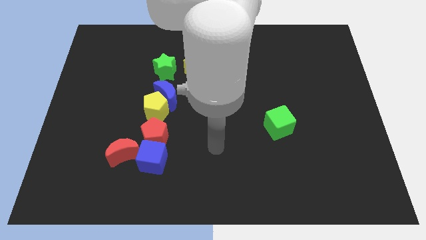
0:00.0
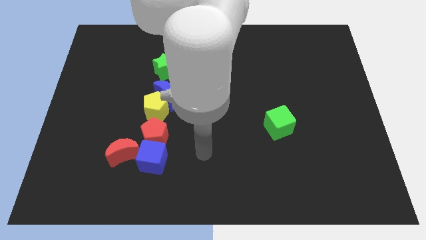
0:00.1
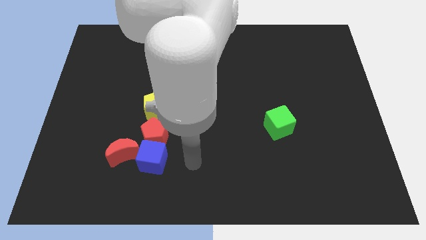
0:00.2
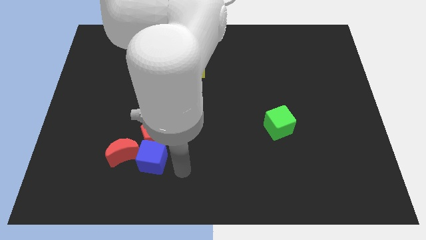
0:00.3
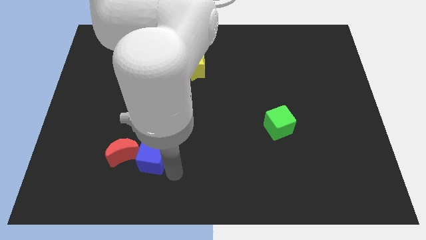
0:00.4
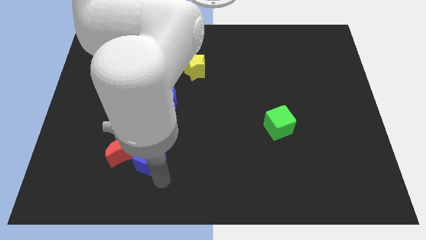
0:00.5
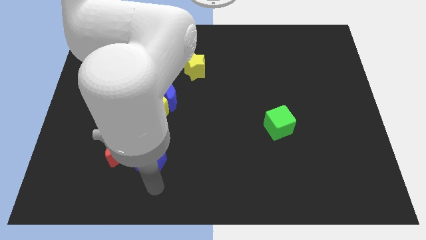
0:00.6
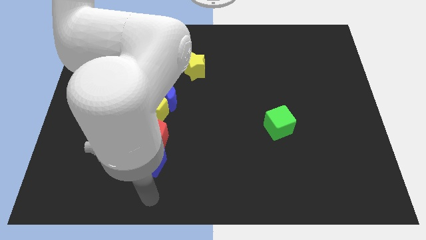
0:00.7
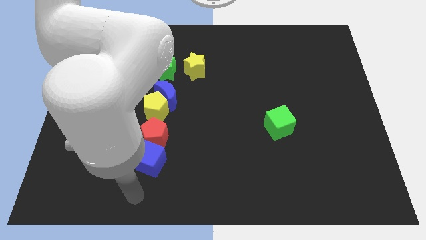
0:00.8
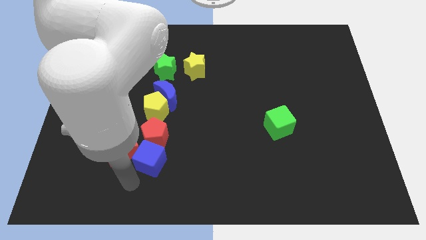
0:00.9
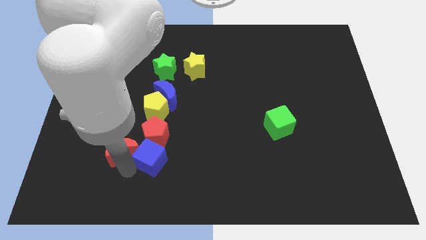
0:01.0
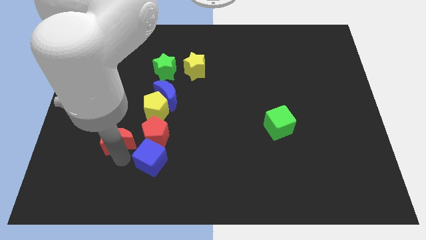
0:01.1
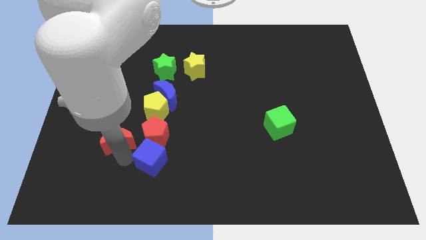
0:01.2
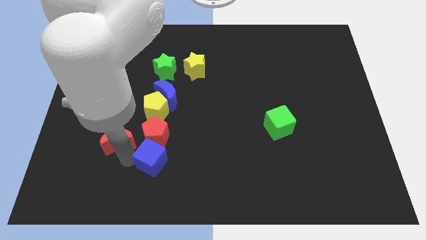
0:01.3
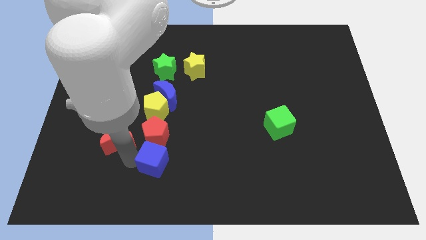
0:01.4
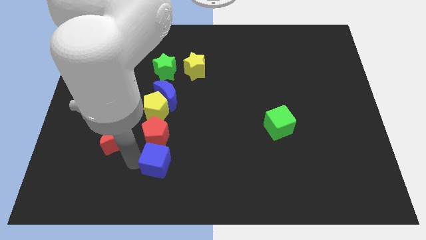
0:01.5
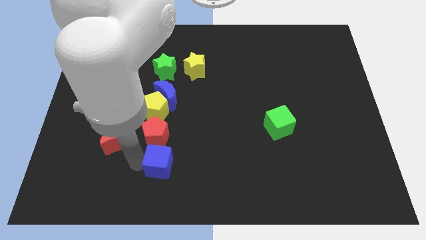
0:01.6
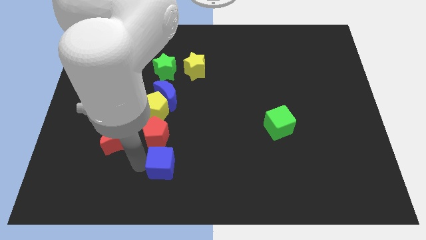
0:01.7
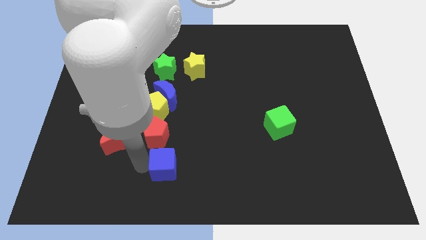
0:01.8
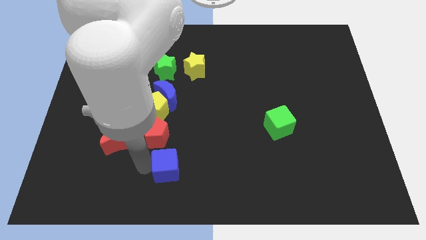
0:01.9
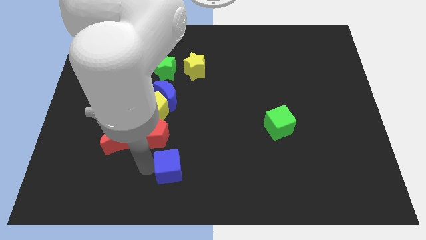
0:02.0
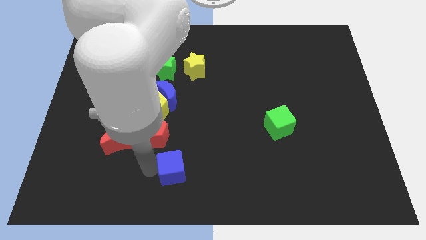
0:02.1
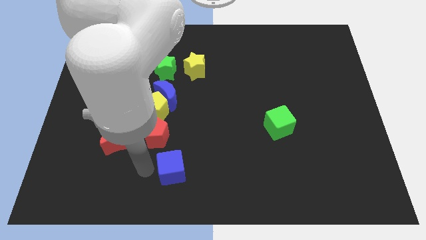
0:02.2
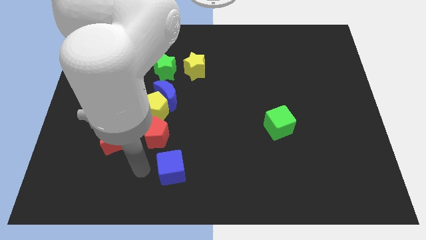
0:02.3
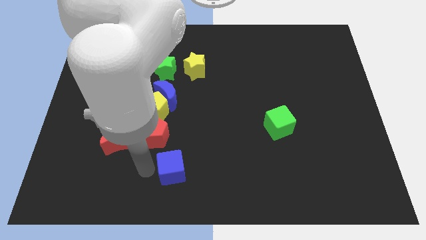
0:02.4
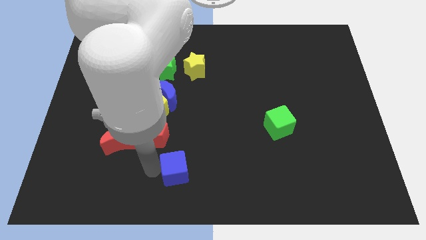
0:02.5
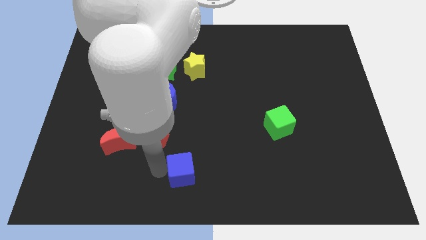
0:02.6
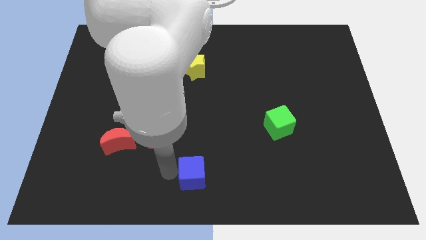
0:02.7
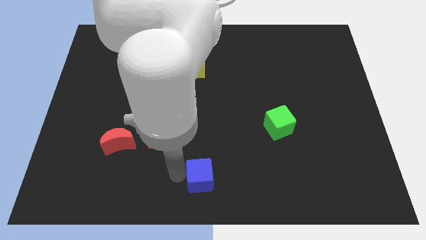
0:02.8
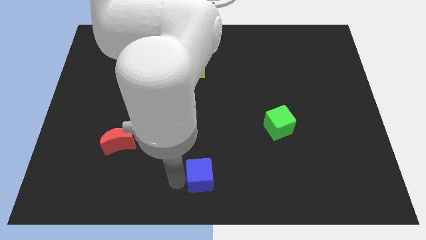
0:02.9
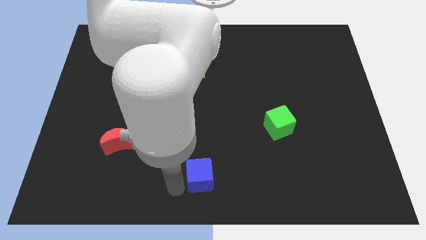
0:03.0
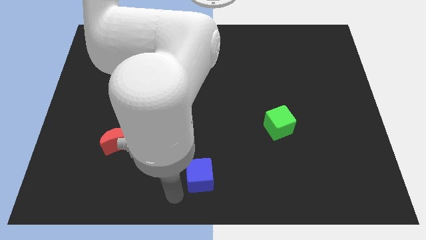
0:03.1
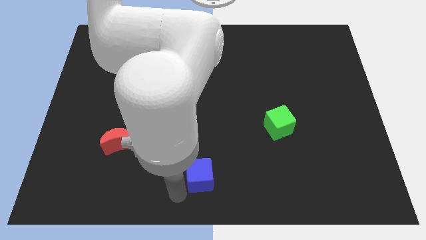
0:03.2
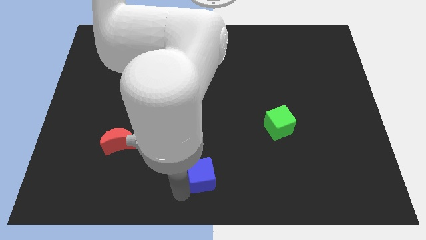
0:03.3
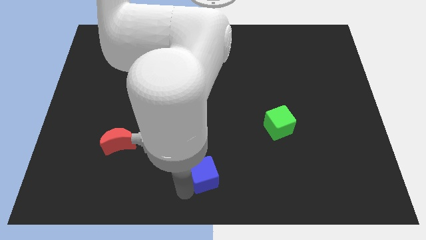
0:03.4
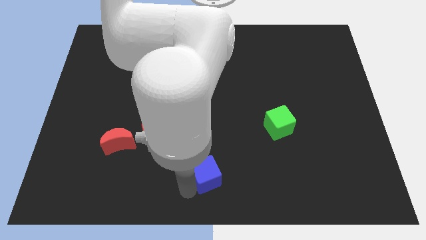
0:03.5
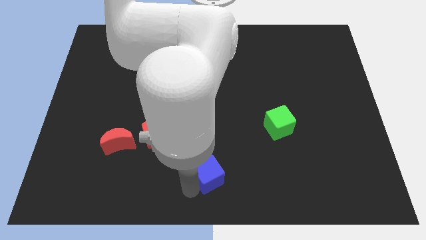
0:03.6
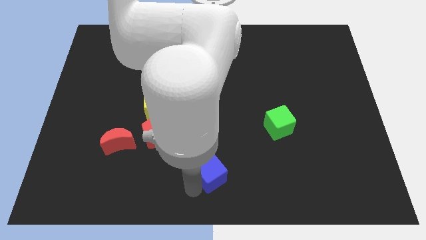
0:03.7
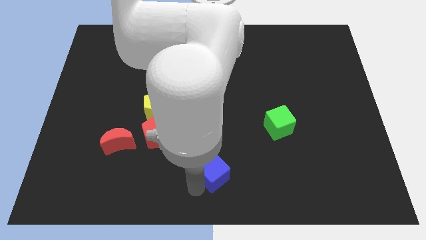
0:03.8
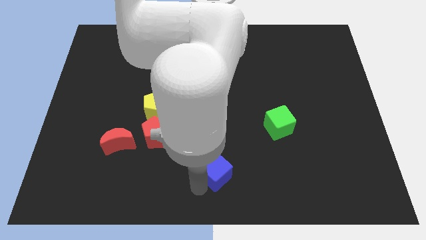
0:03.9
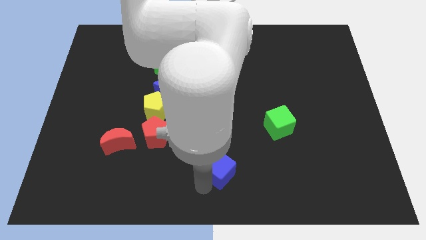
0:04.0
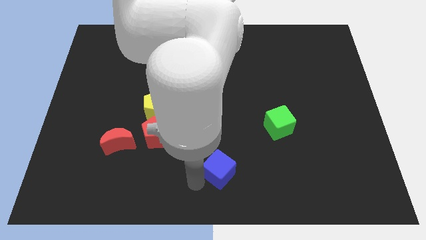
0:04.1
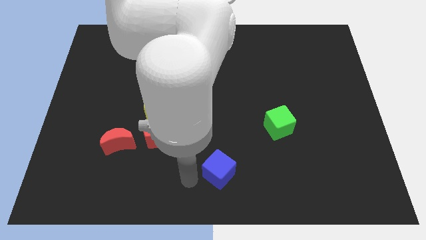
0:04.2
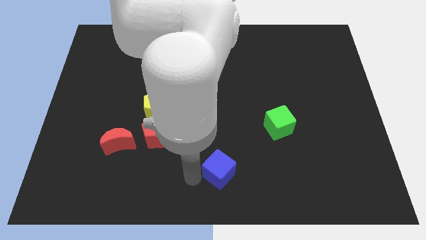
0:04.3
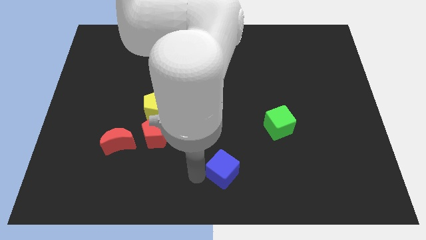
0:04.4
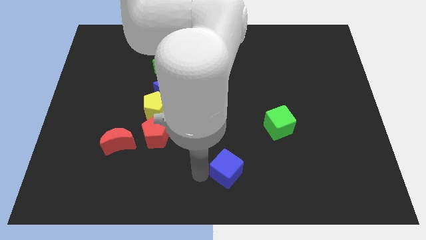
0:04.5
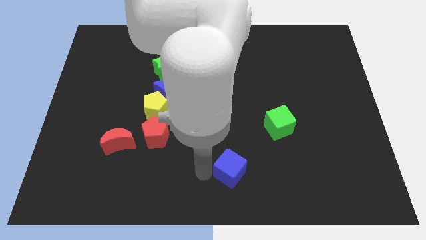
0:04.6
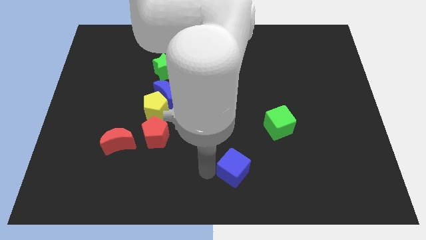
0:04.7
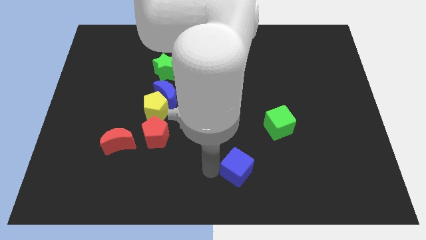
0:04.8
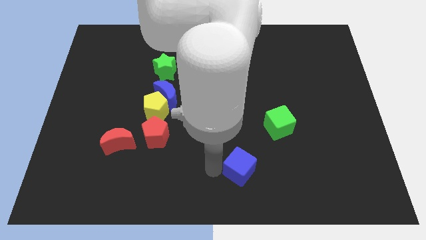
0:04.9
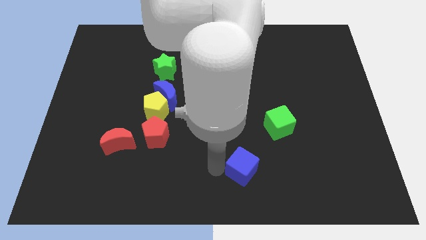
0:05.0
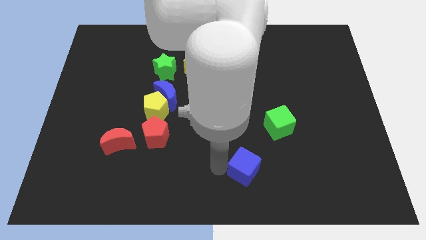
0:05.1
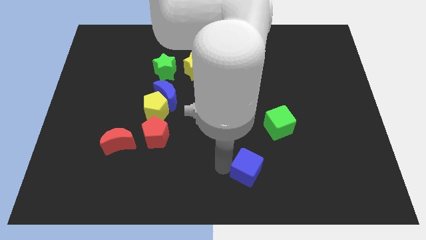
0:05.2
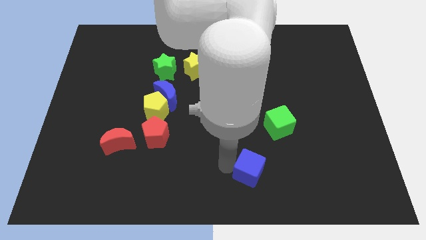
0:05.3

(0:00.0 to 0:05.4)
move the blue cube right

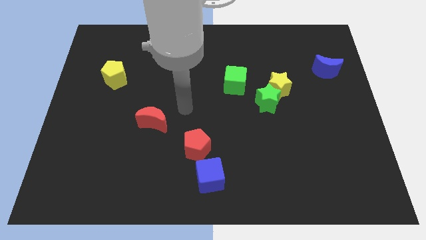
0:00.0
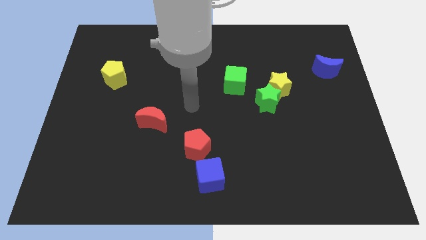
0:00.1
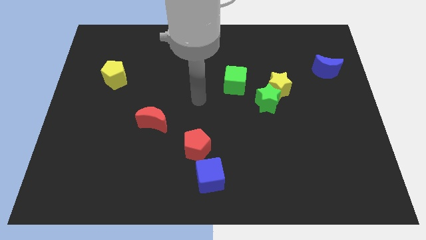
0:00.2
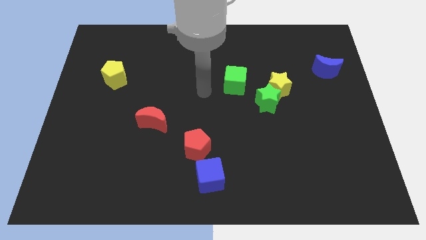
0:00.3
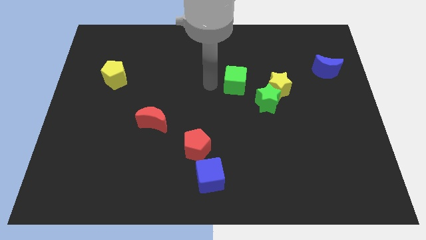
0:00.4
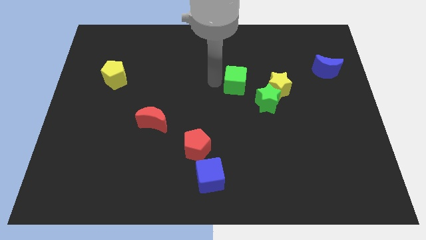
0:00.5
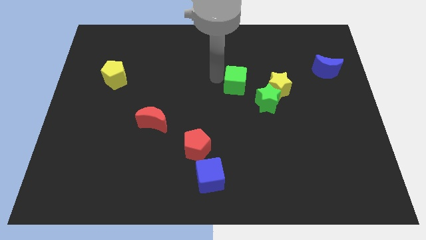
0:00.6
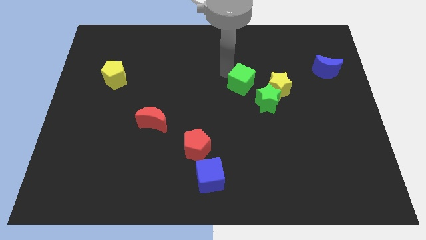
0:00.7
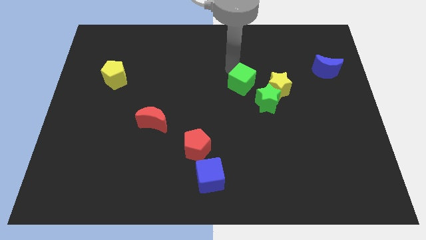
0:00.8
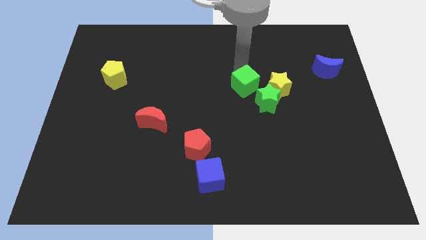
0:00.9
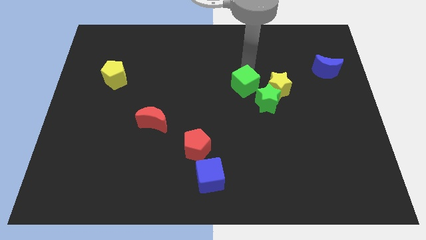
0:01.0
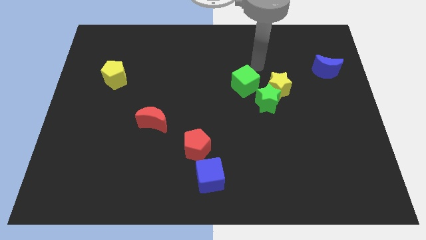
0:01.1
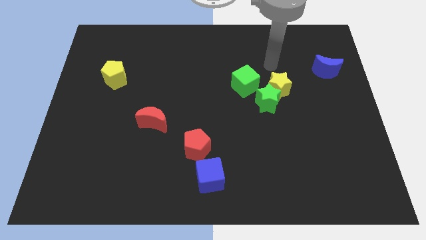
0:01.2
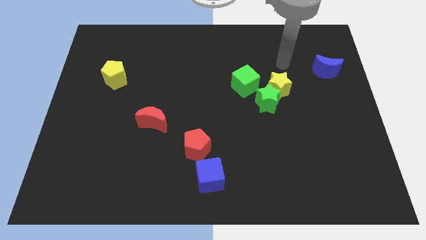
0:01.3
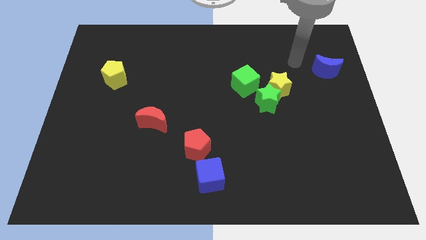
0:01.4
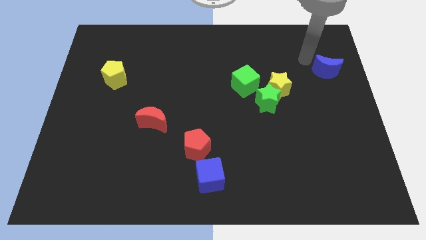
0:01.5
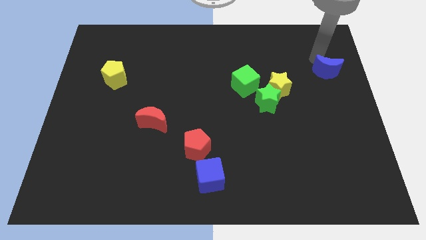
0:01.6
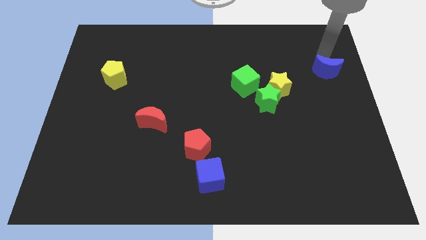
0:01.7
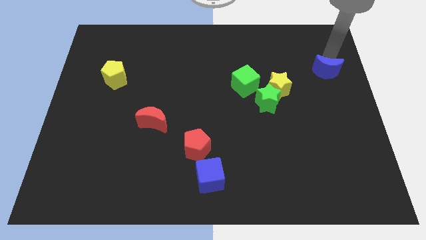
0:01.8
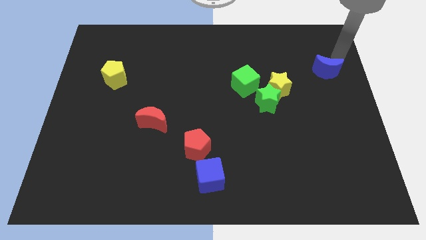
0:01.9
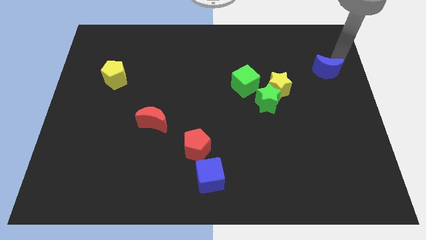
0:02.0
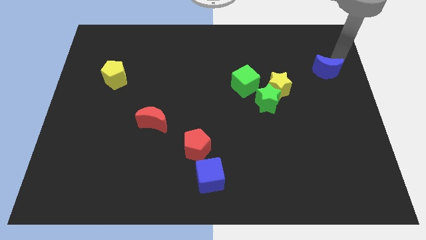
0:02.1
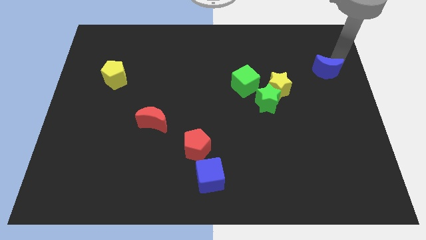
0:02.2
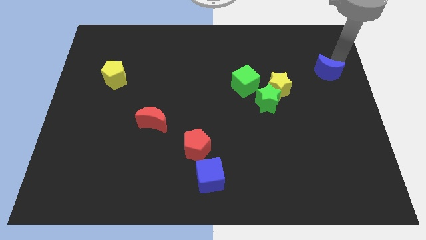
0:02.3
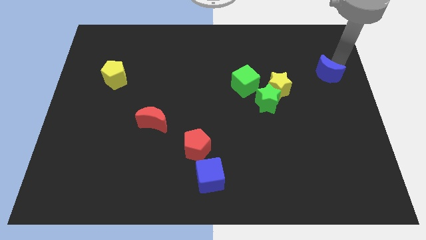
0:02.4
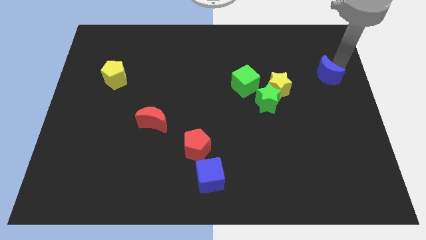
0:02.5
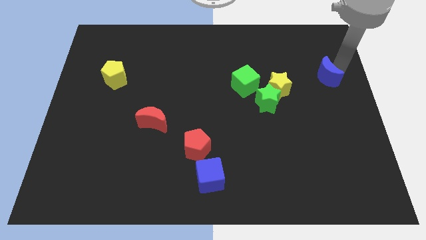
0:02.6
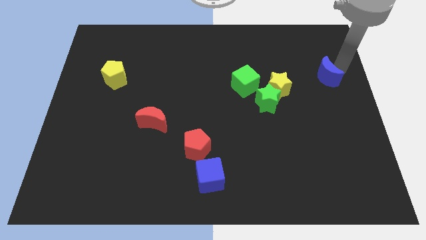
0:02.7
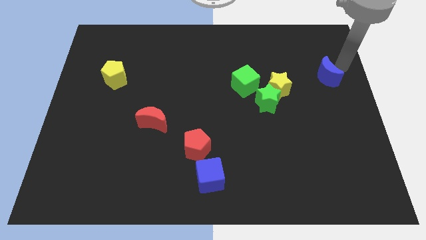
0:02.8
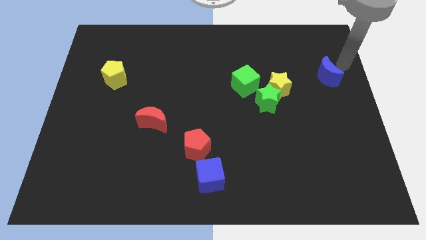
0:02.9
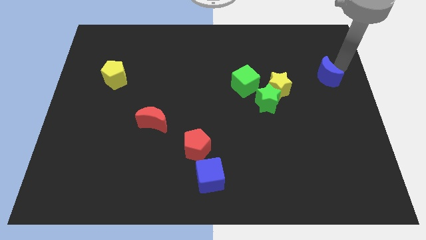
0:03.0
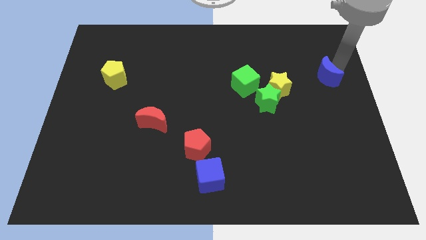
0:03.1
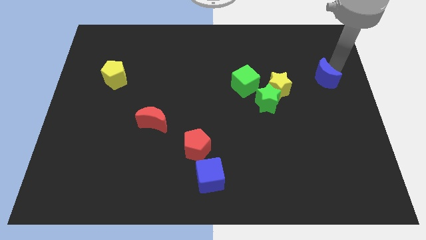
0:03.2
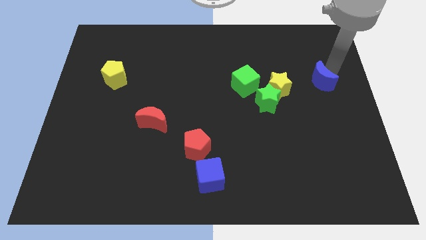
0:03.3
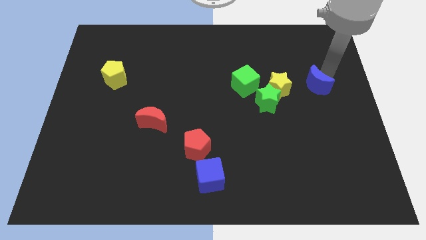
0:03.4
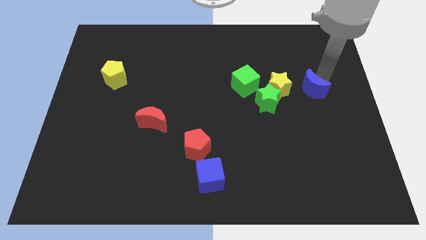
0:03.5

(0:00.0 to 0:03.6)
slide the blue moon a bit down and to the left diagonally
